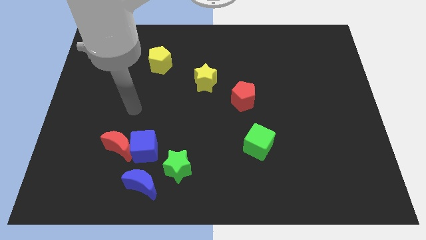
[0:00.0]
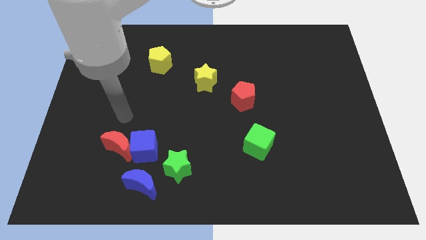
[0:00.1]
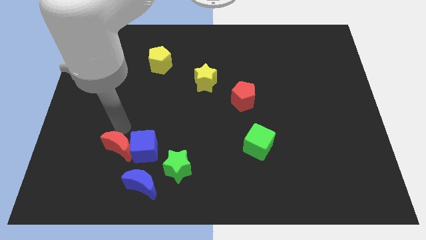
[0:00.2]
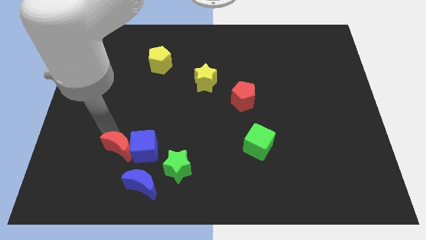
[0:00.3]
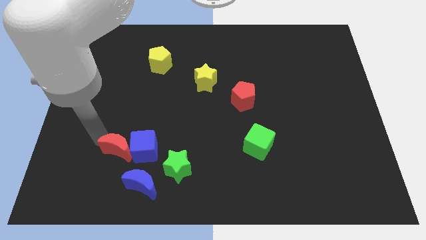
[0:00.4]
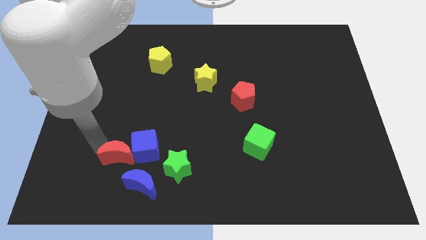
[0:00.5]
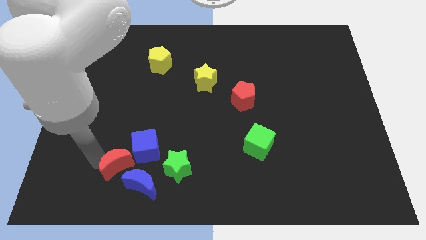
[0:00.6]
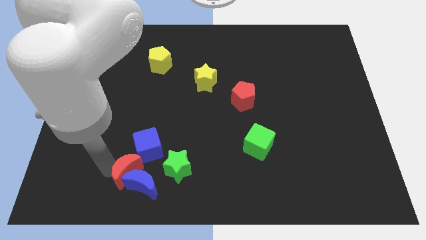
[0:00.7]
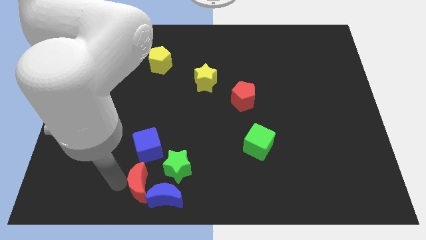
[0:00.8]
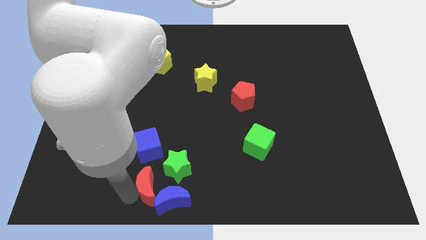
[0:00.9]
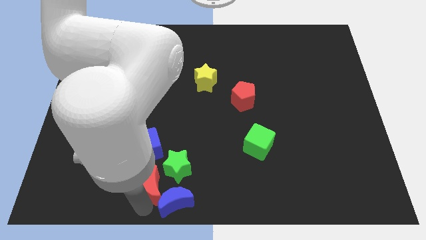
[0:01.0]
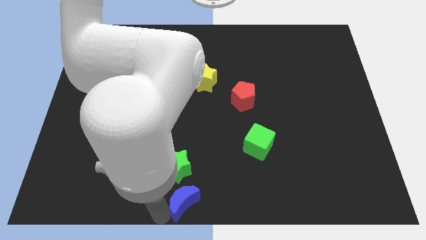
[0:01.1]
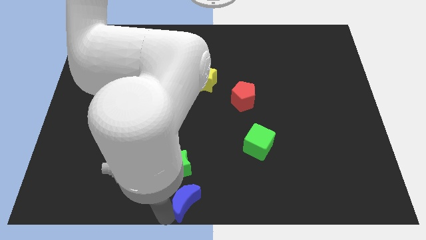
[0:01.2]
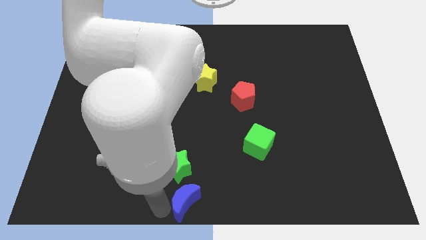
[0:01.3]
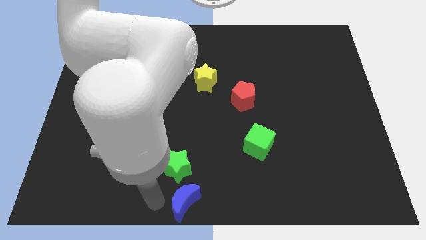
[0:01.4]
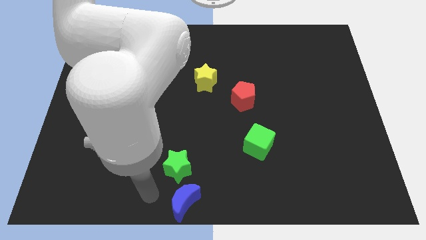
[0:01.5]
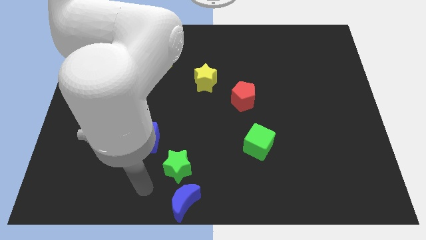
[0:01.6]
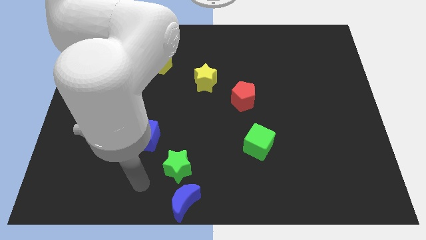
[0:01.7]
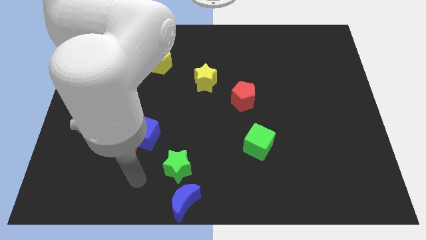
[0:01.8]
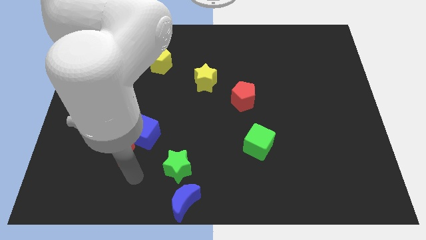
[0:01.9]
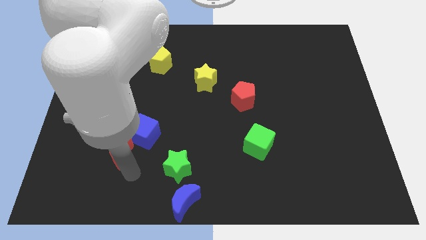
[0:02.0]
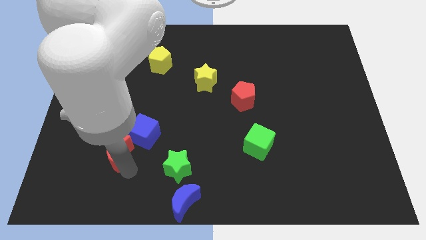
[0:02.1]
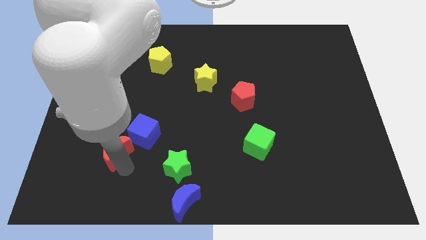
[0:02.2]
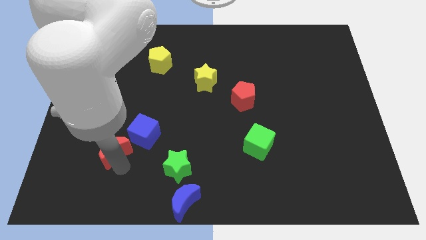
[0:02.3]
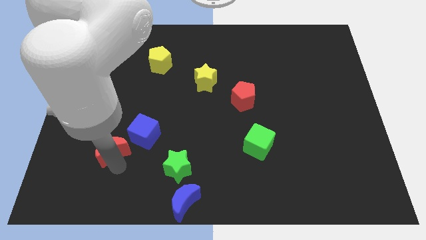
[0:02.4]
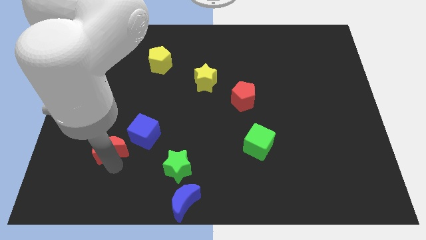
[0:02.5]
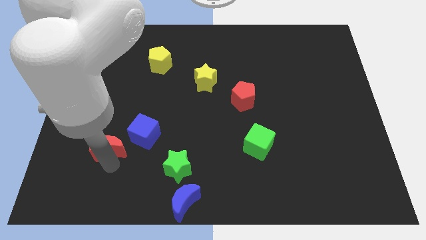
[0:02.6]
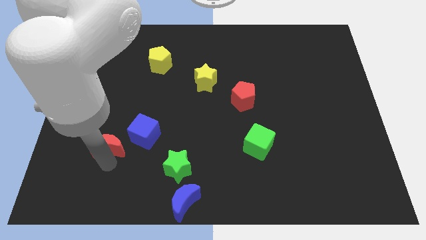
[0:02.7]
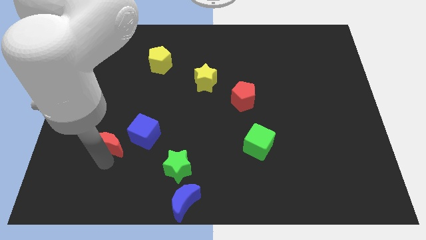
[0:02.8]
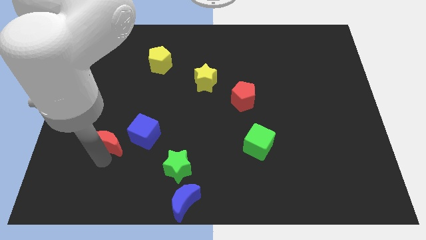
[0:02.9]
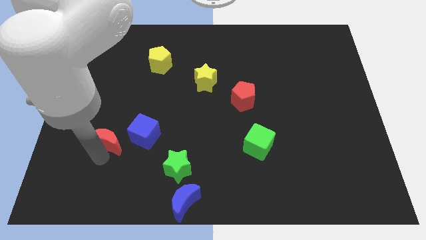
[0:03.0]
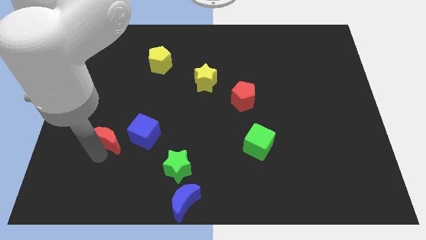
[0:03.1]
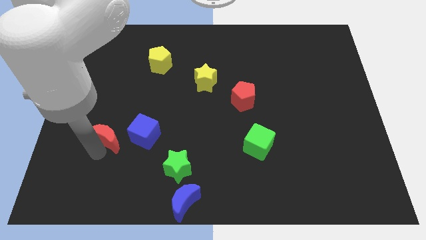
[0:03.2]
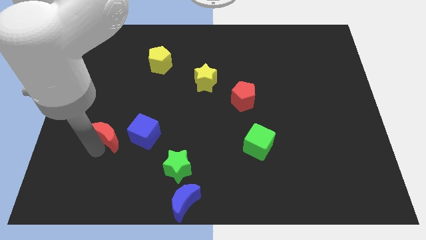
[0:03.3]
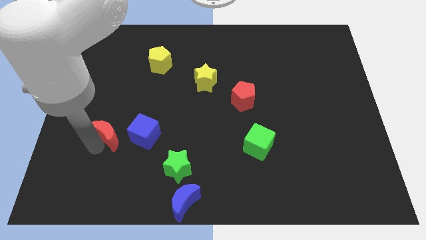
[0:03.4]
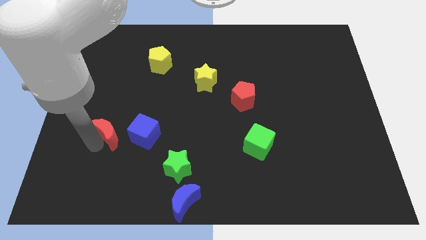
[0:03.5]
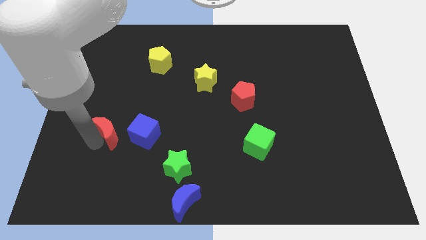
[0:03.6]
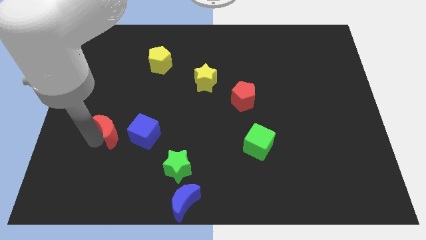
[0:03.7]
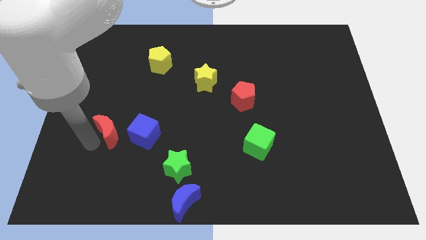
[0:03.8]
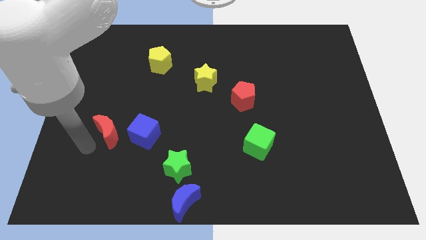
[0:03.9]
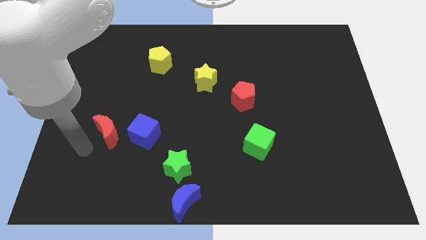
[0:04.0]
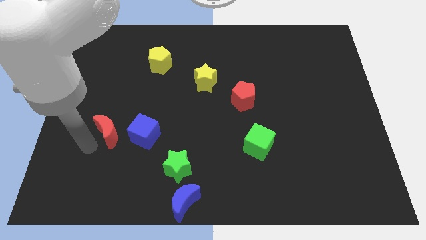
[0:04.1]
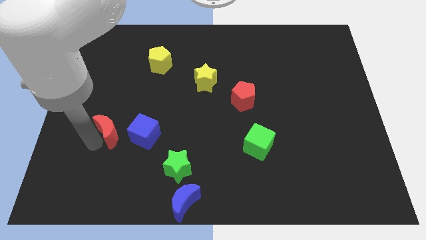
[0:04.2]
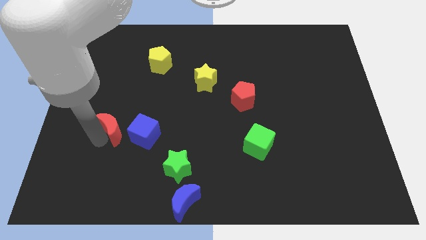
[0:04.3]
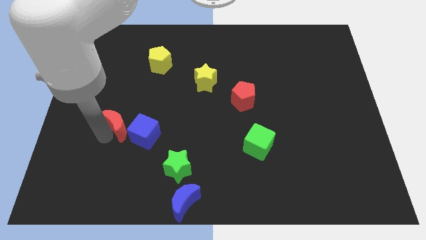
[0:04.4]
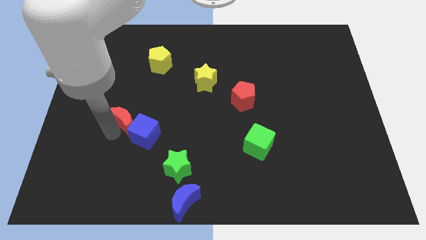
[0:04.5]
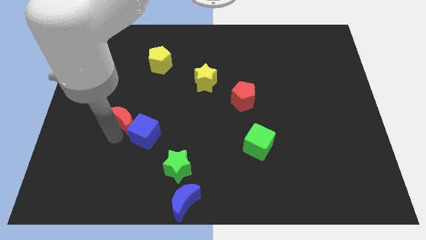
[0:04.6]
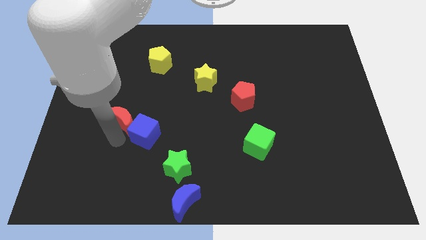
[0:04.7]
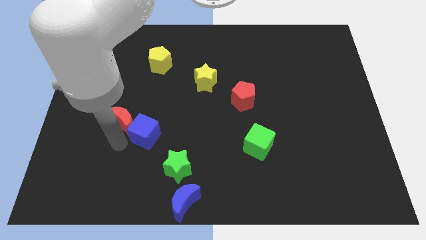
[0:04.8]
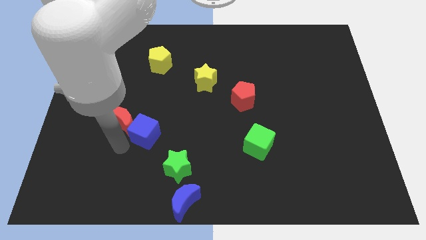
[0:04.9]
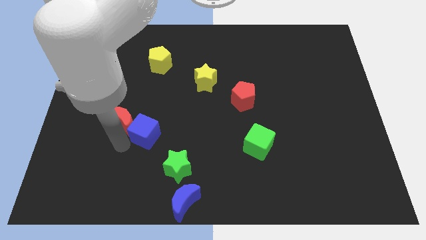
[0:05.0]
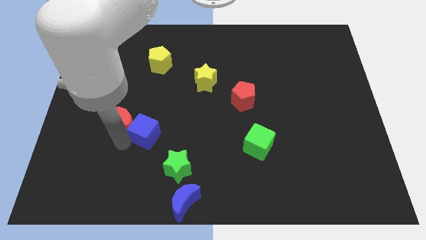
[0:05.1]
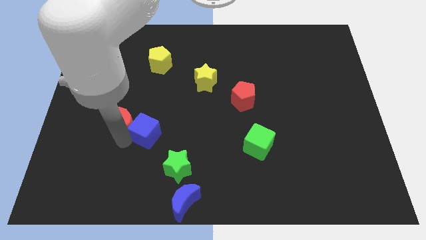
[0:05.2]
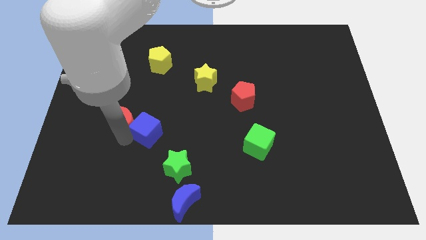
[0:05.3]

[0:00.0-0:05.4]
move the red moon a bit up

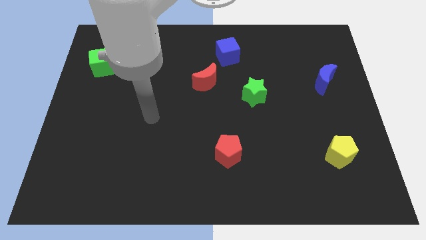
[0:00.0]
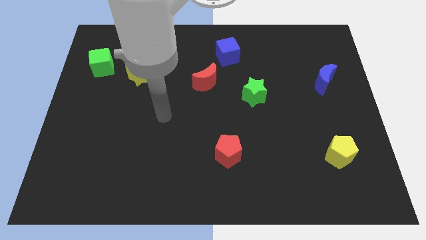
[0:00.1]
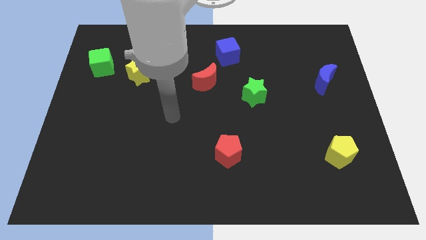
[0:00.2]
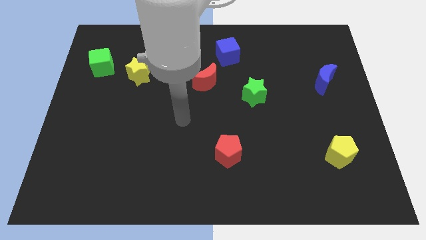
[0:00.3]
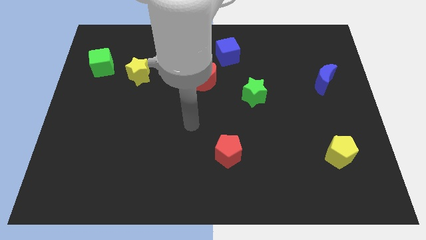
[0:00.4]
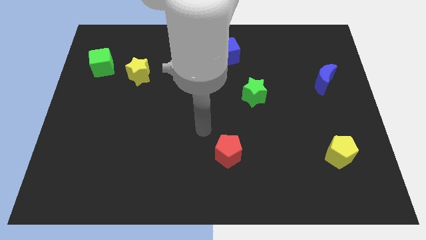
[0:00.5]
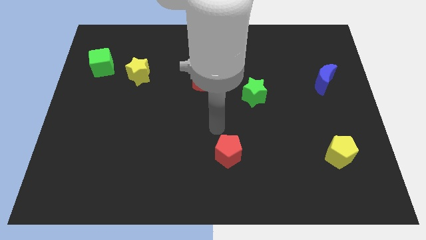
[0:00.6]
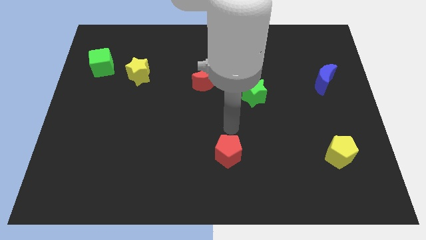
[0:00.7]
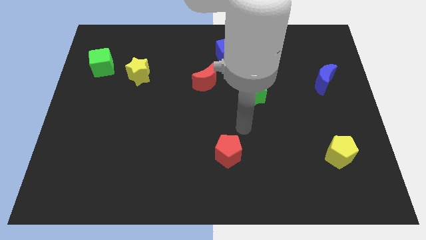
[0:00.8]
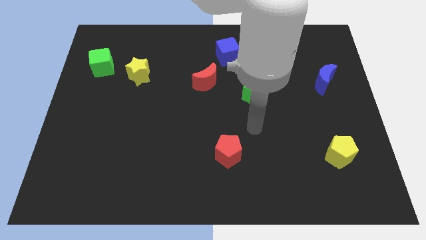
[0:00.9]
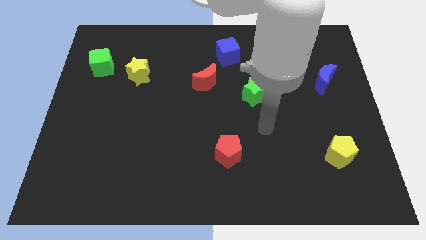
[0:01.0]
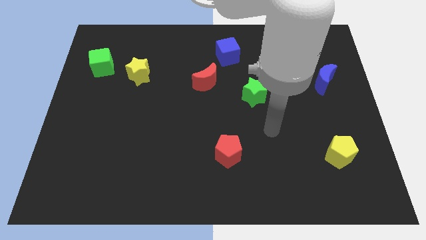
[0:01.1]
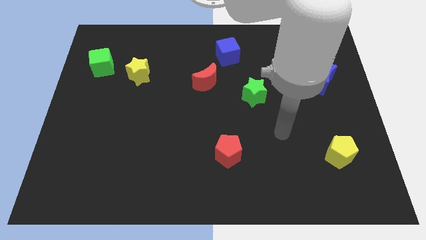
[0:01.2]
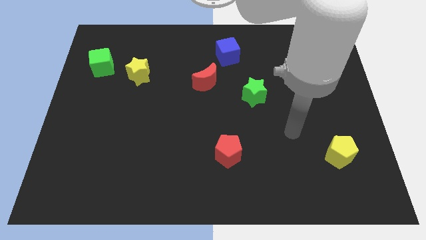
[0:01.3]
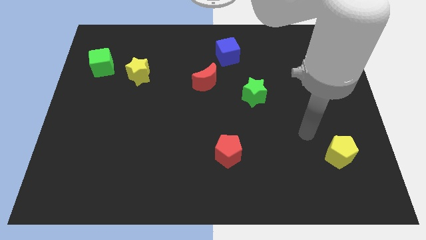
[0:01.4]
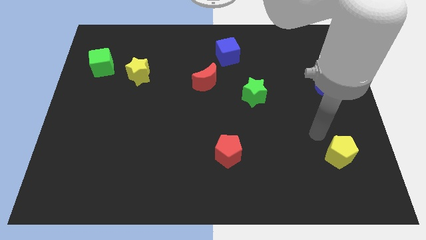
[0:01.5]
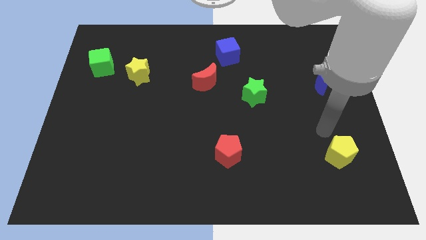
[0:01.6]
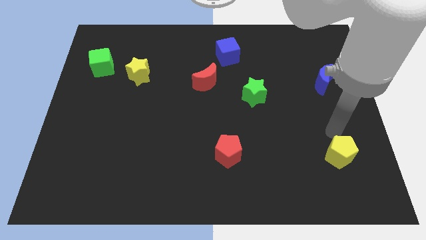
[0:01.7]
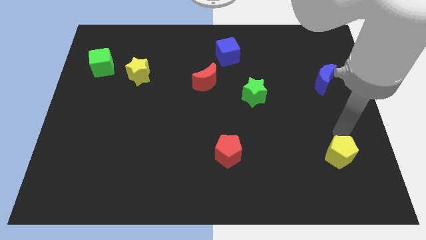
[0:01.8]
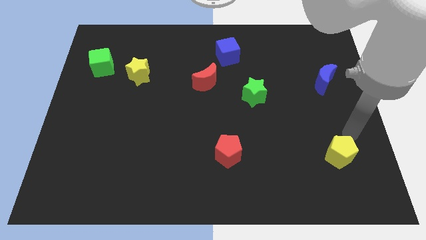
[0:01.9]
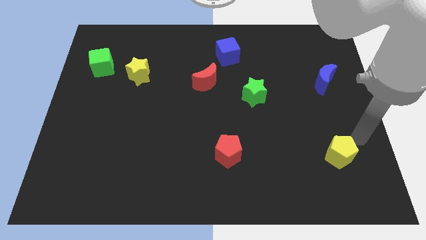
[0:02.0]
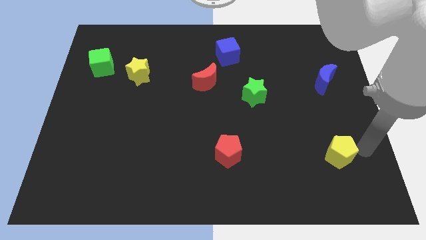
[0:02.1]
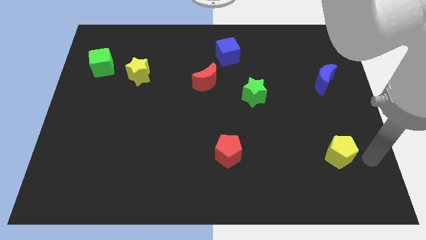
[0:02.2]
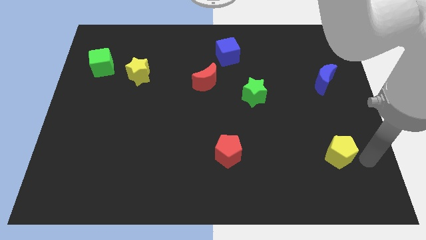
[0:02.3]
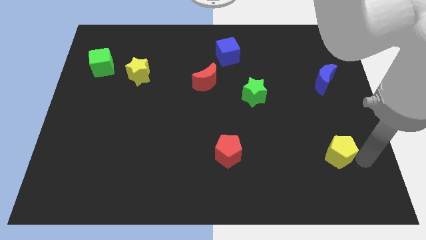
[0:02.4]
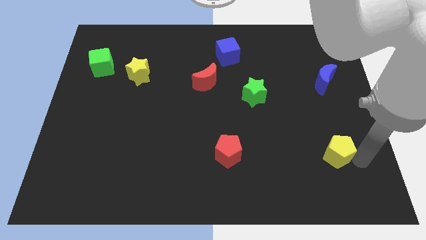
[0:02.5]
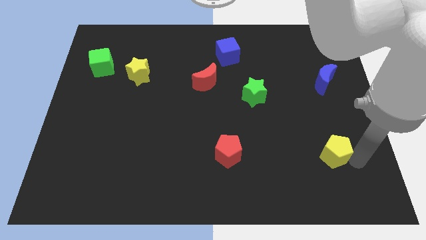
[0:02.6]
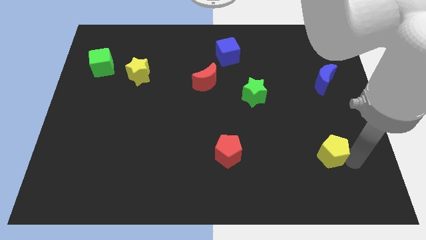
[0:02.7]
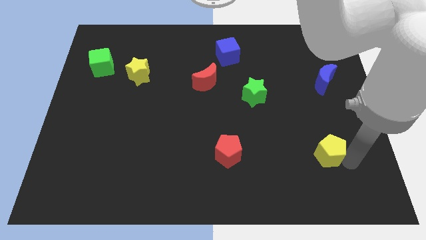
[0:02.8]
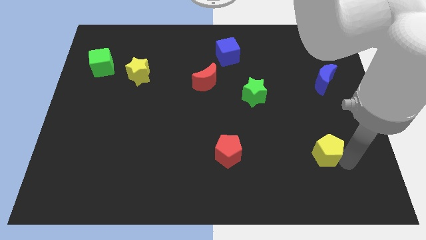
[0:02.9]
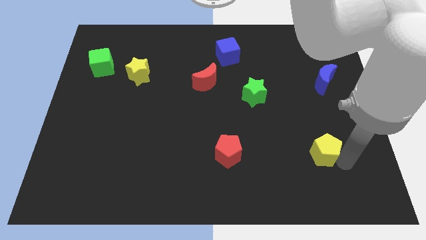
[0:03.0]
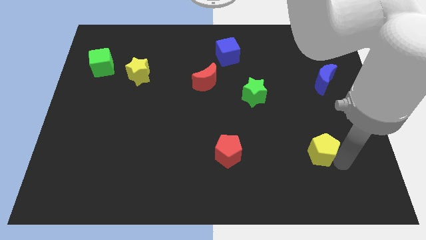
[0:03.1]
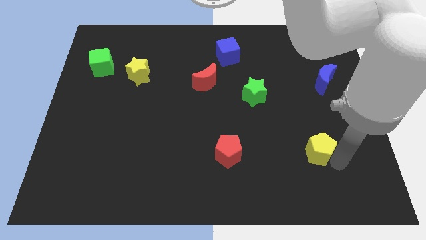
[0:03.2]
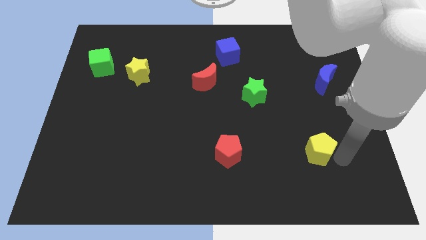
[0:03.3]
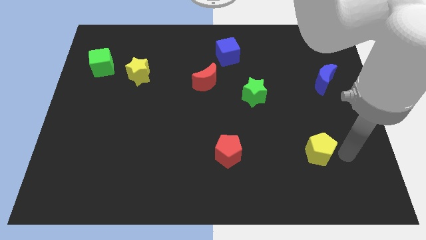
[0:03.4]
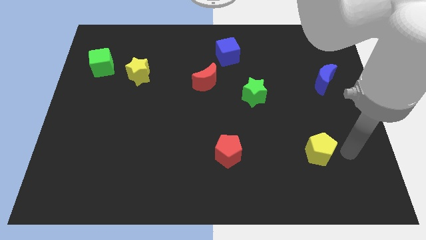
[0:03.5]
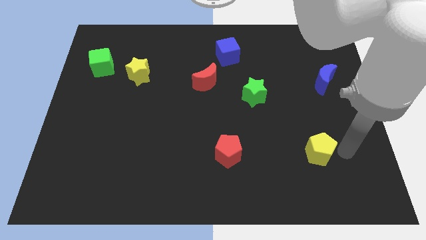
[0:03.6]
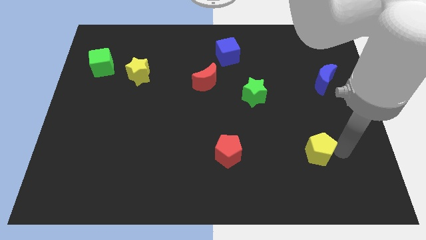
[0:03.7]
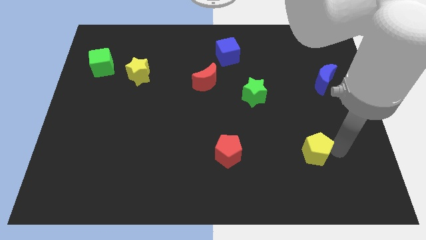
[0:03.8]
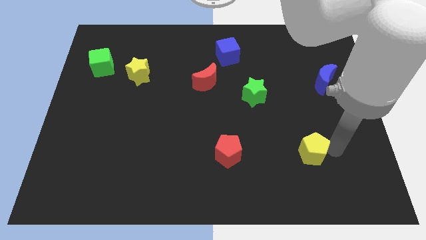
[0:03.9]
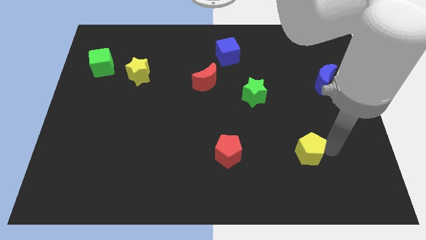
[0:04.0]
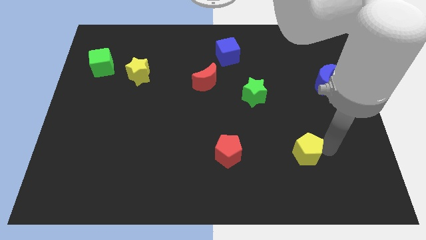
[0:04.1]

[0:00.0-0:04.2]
slide the yellow pentagon slightly to the left
